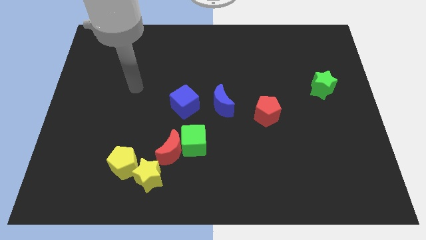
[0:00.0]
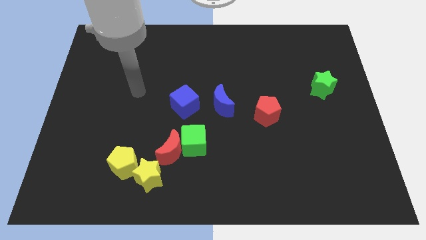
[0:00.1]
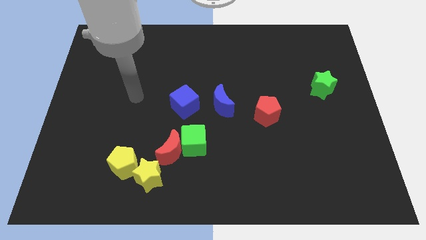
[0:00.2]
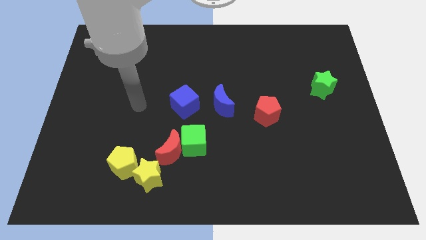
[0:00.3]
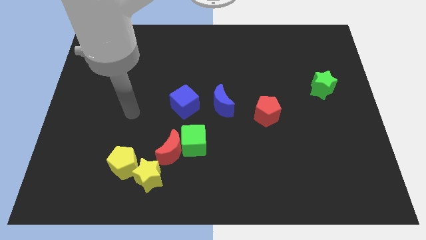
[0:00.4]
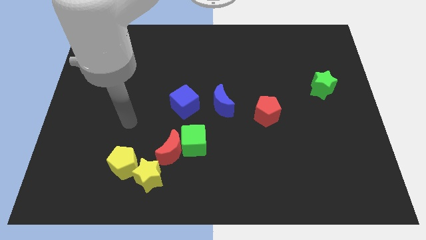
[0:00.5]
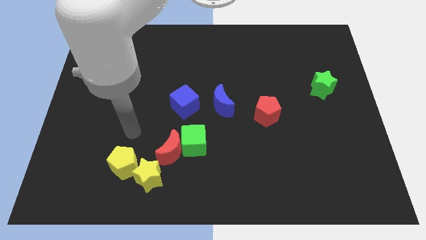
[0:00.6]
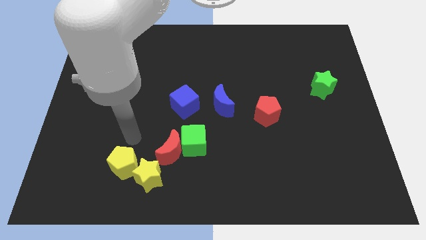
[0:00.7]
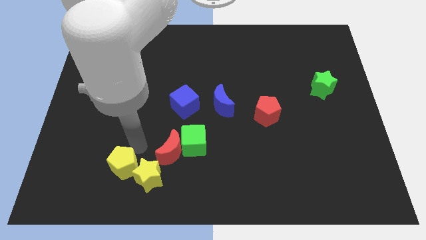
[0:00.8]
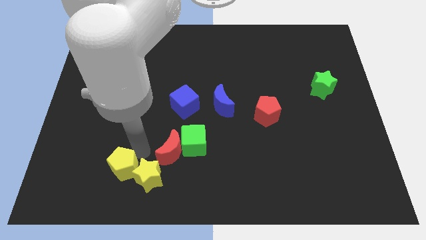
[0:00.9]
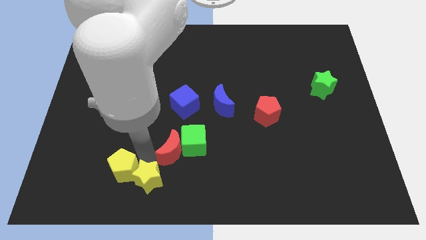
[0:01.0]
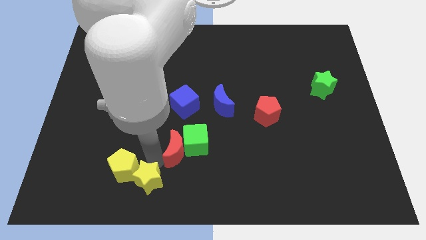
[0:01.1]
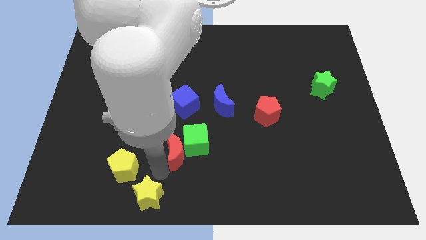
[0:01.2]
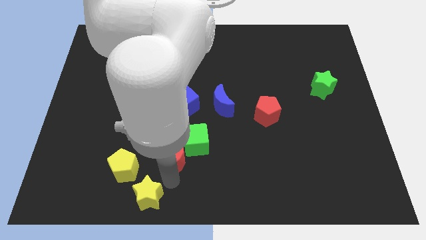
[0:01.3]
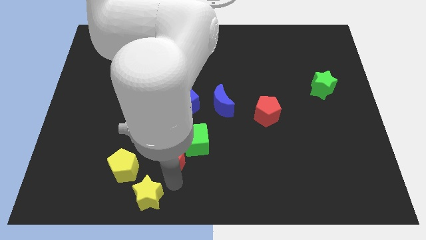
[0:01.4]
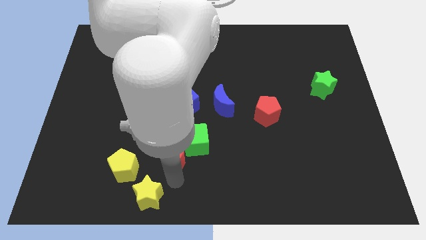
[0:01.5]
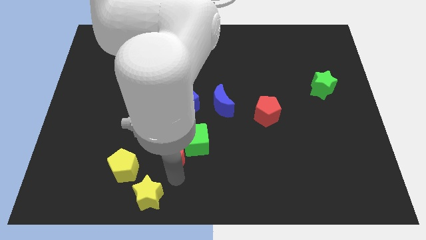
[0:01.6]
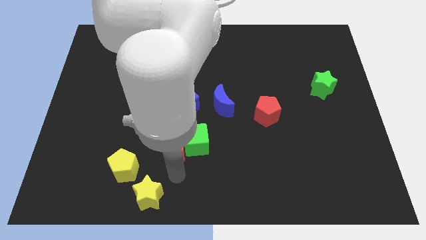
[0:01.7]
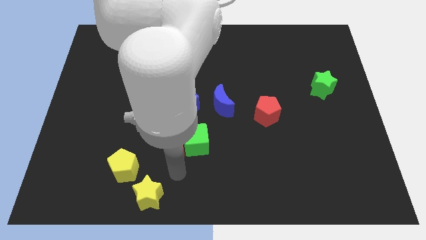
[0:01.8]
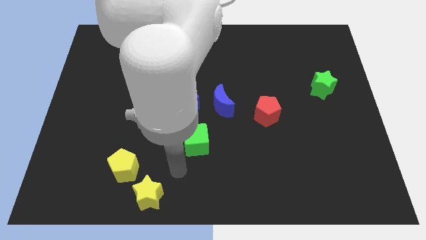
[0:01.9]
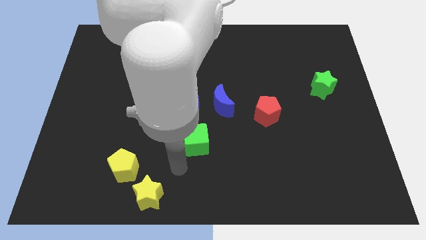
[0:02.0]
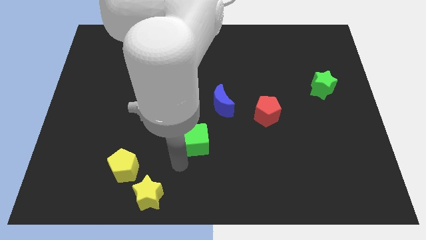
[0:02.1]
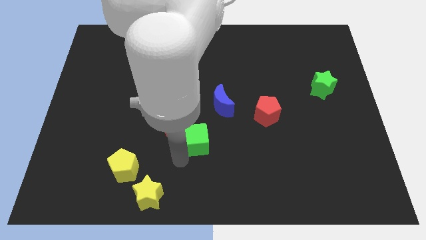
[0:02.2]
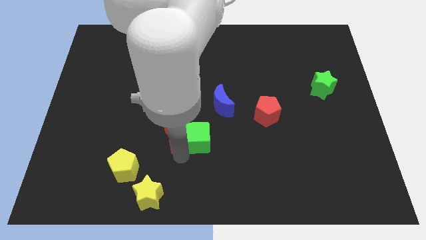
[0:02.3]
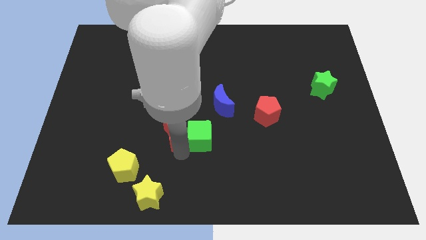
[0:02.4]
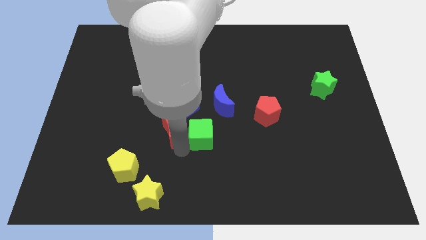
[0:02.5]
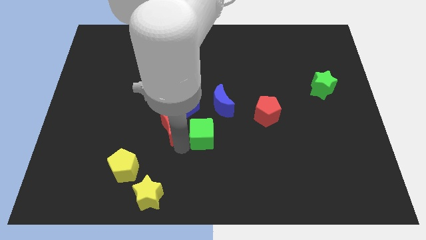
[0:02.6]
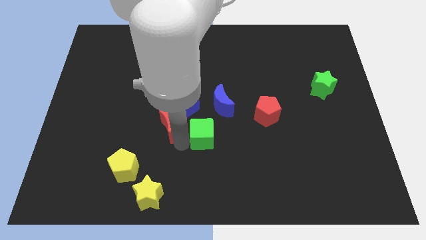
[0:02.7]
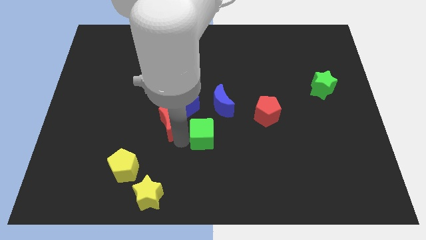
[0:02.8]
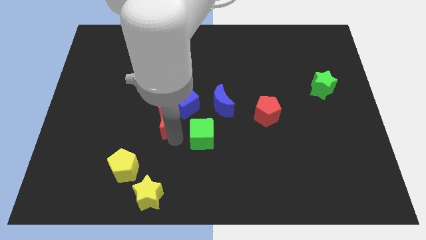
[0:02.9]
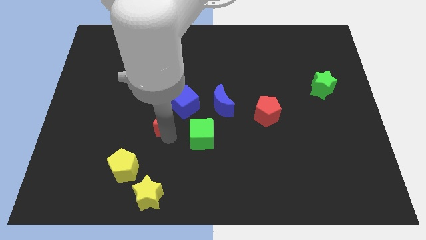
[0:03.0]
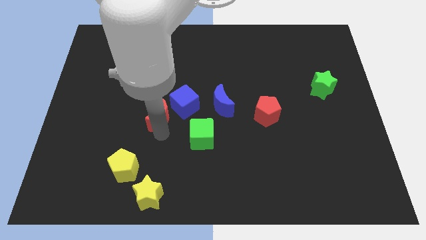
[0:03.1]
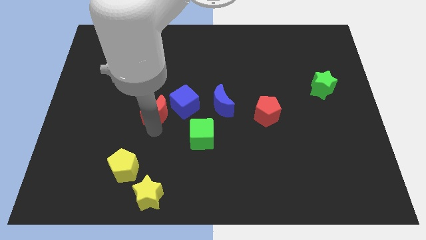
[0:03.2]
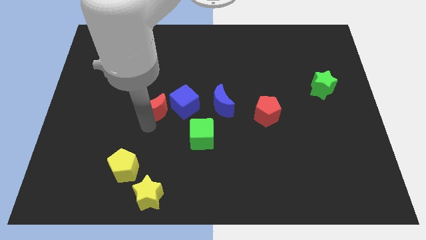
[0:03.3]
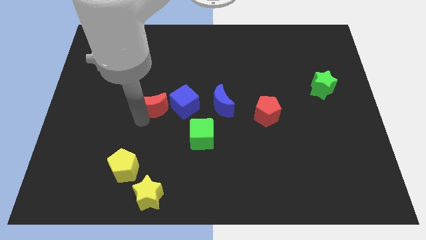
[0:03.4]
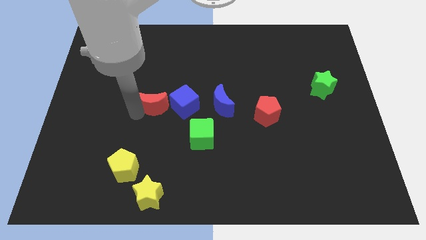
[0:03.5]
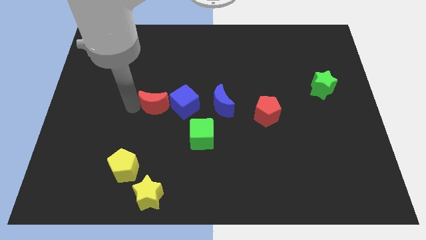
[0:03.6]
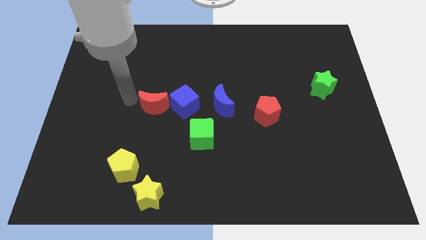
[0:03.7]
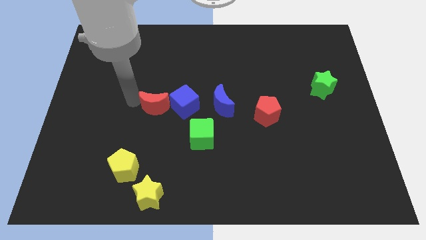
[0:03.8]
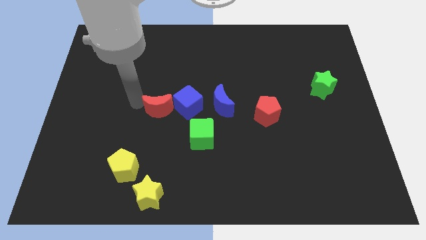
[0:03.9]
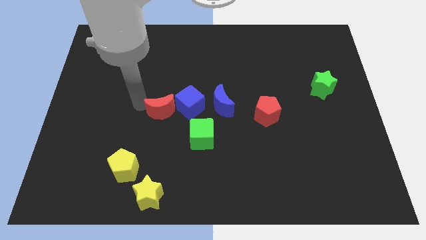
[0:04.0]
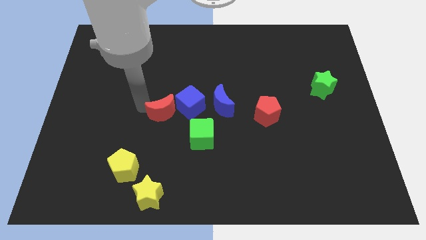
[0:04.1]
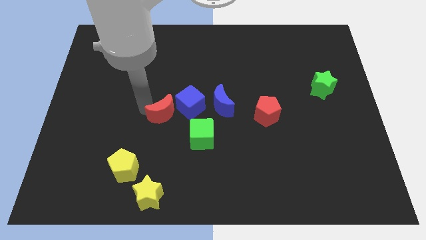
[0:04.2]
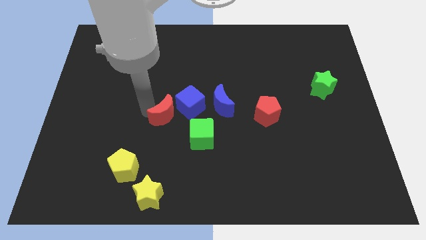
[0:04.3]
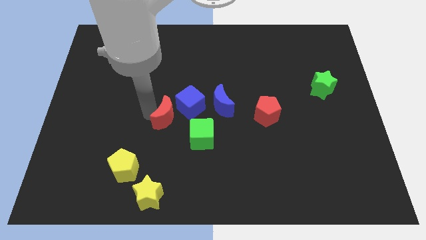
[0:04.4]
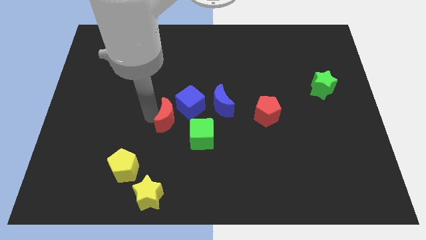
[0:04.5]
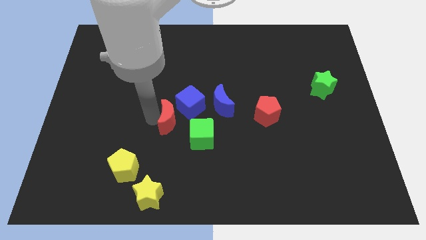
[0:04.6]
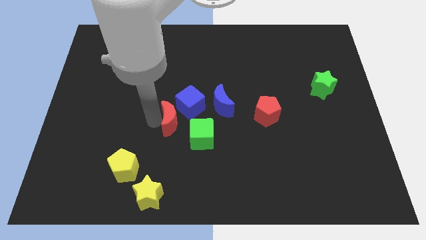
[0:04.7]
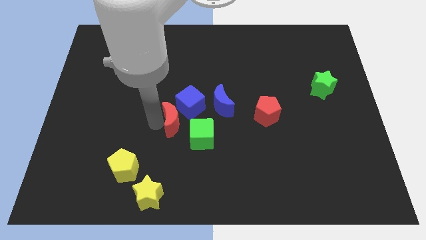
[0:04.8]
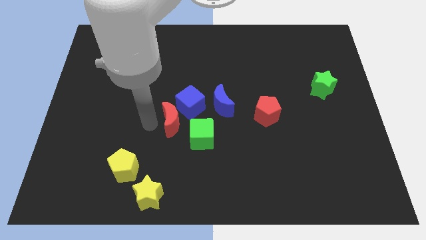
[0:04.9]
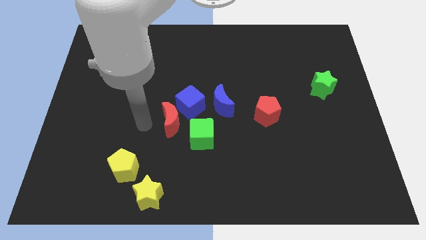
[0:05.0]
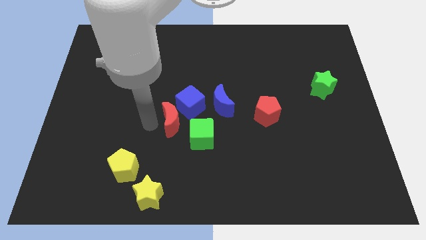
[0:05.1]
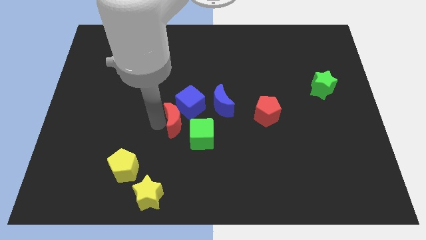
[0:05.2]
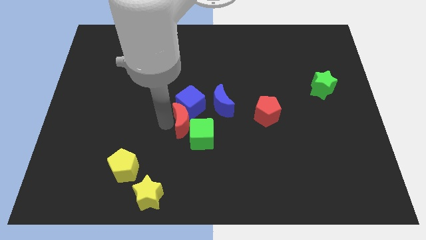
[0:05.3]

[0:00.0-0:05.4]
slide the red moon to the top of the green cube

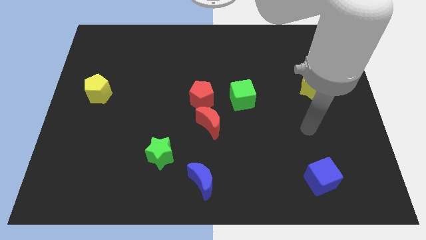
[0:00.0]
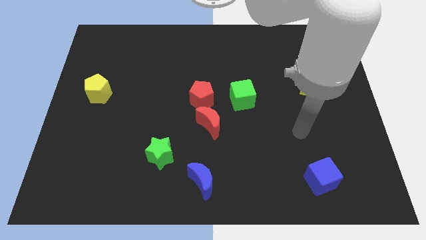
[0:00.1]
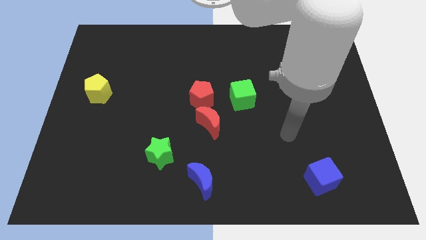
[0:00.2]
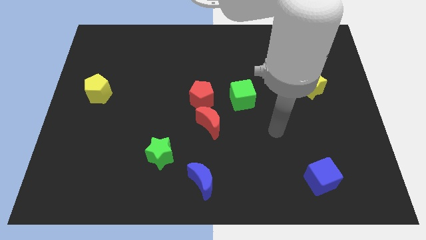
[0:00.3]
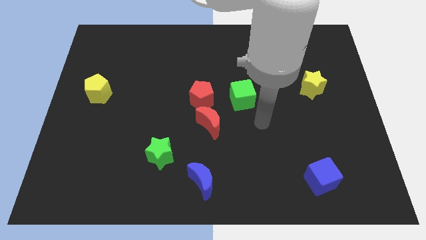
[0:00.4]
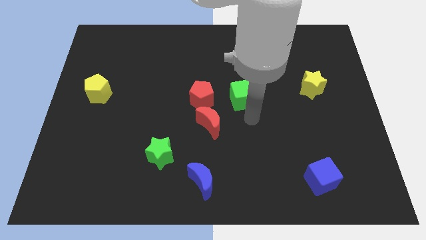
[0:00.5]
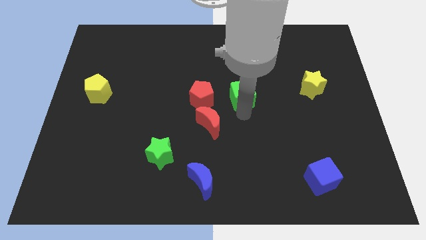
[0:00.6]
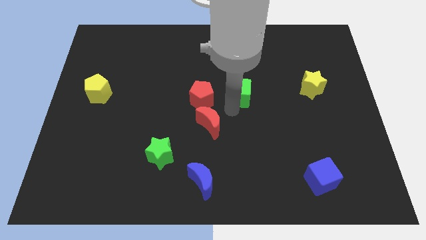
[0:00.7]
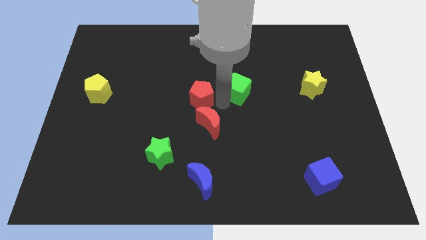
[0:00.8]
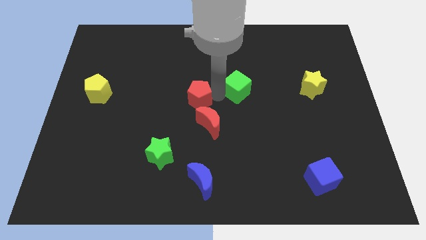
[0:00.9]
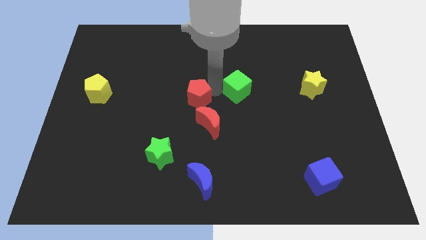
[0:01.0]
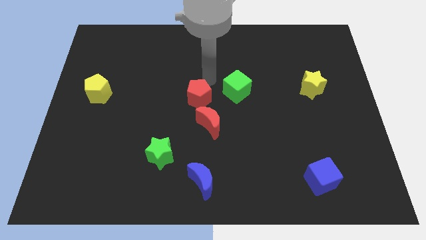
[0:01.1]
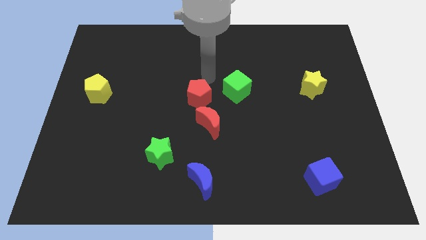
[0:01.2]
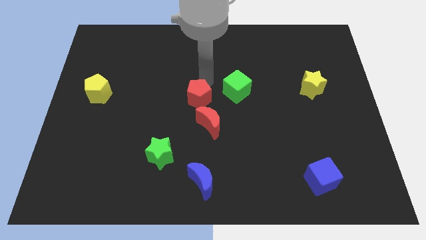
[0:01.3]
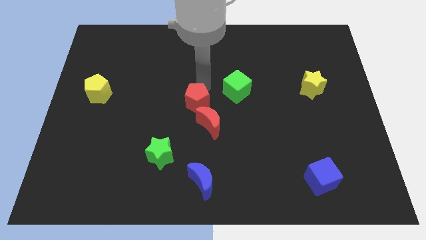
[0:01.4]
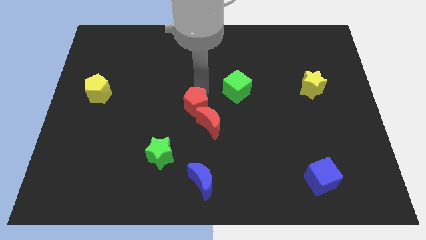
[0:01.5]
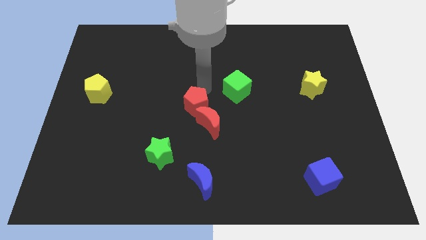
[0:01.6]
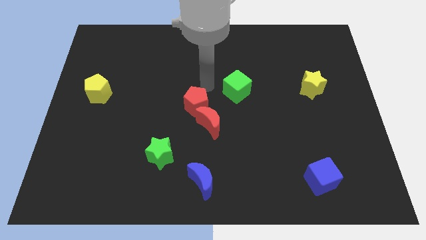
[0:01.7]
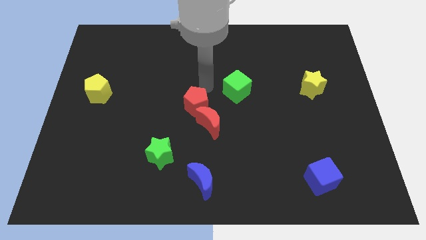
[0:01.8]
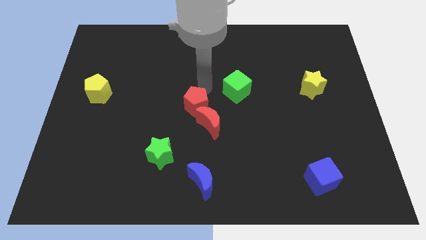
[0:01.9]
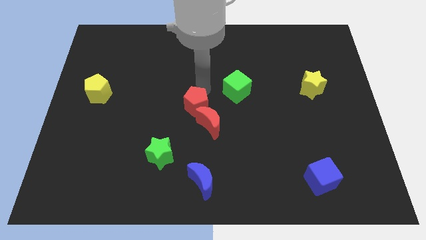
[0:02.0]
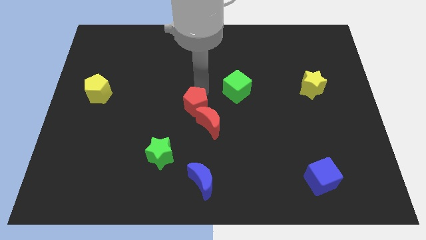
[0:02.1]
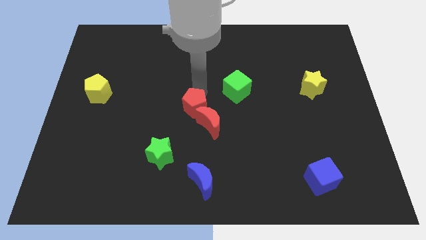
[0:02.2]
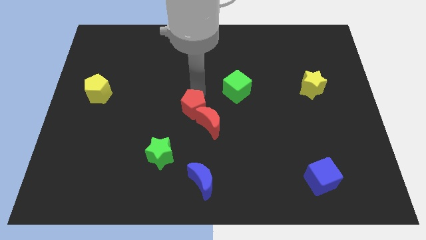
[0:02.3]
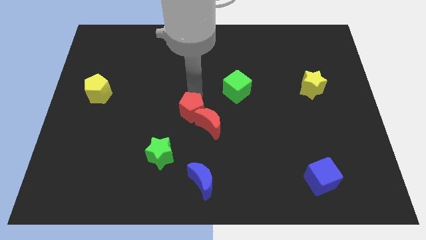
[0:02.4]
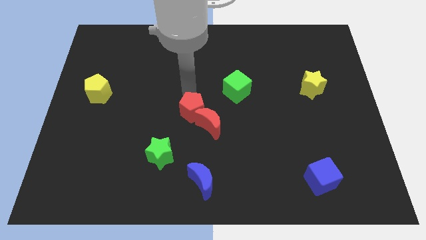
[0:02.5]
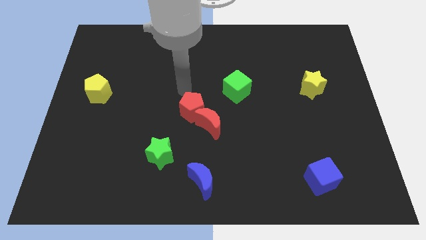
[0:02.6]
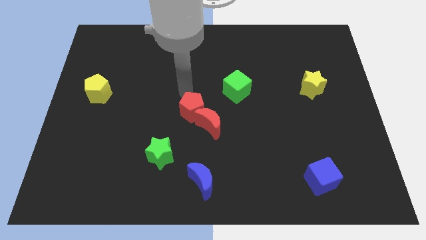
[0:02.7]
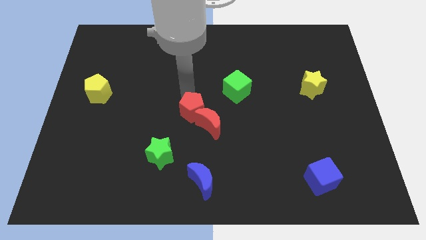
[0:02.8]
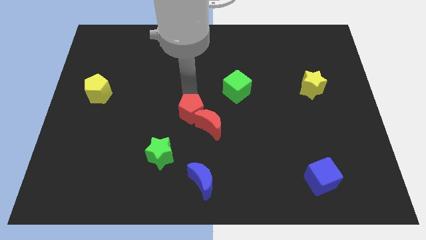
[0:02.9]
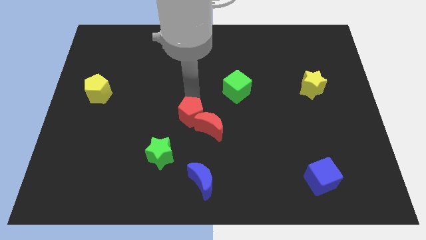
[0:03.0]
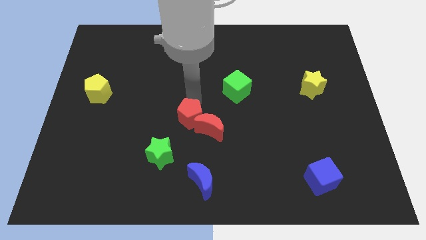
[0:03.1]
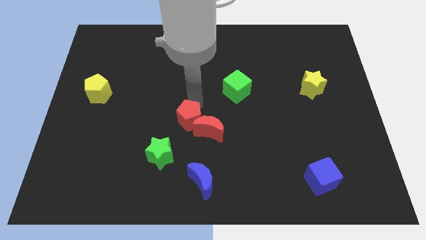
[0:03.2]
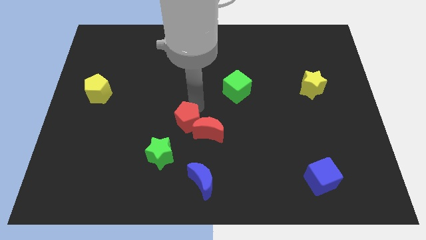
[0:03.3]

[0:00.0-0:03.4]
move the red pentagon to the top side of the blue moon
